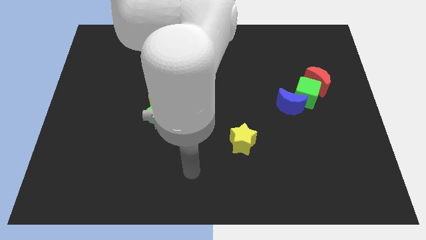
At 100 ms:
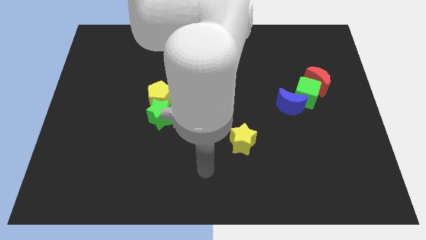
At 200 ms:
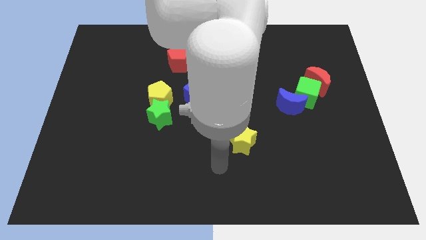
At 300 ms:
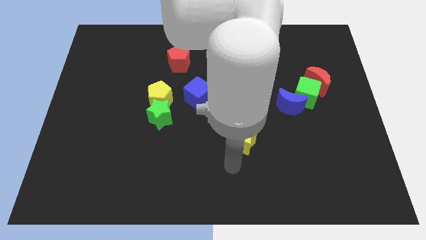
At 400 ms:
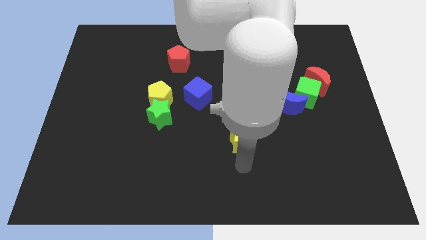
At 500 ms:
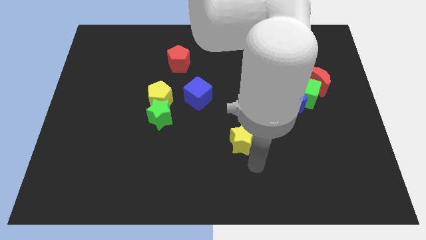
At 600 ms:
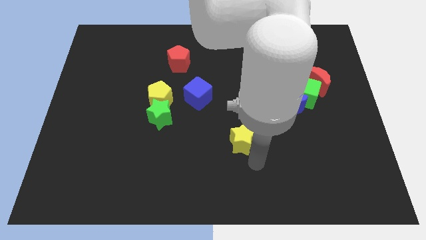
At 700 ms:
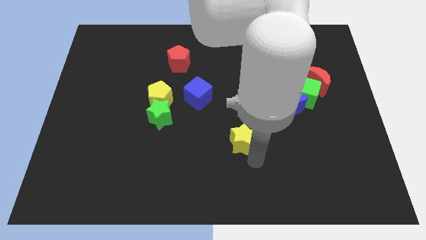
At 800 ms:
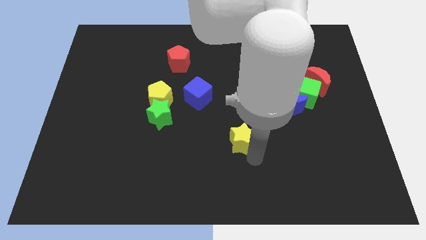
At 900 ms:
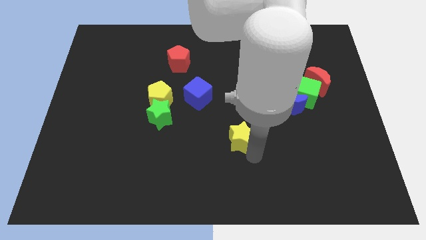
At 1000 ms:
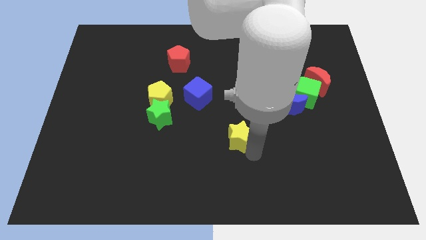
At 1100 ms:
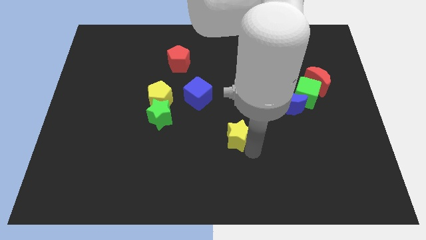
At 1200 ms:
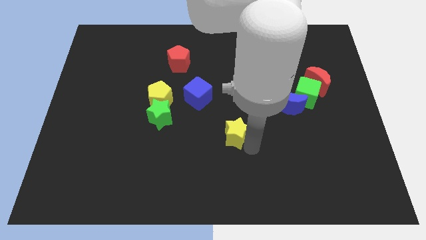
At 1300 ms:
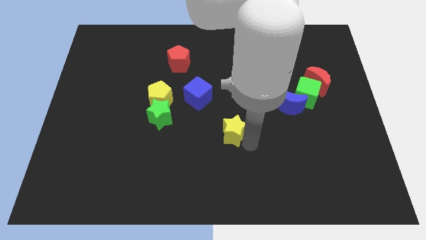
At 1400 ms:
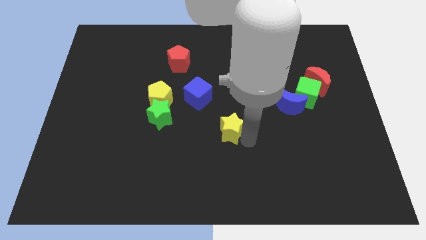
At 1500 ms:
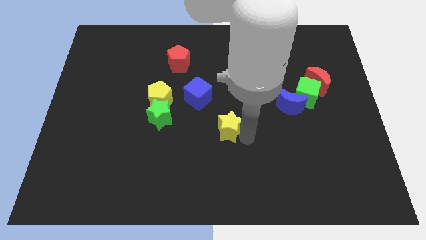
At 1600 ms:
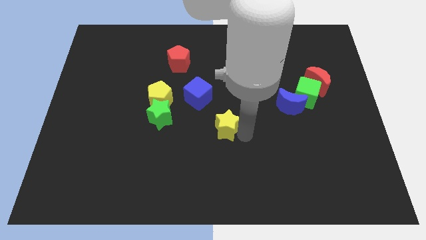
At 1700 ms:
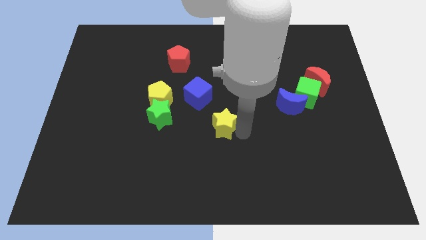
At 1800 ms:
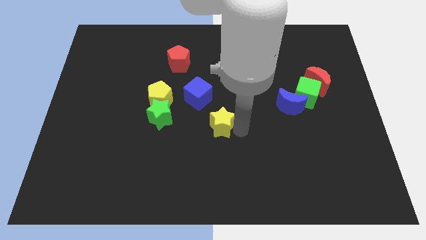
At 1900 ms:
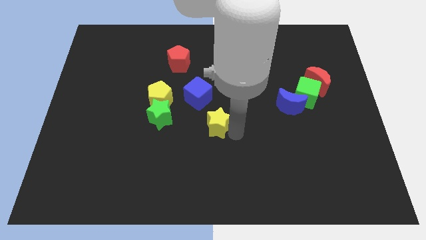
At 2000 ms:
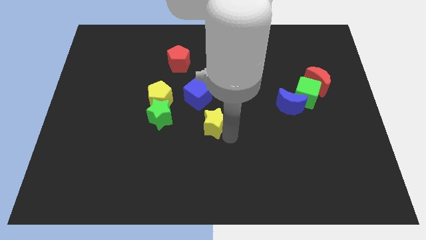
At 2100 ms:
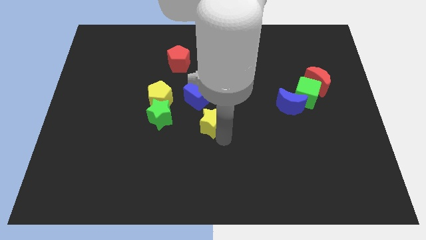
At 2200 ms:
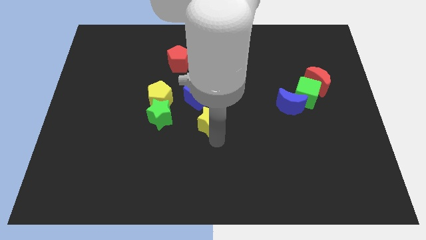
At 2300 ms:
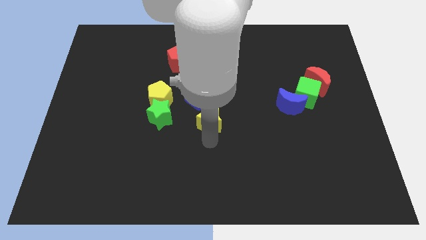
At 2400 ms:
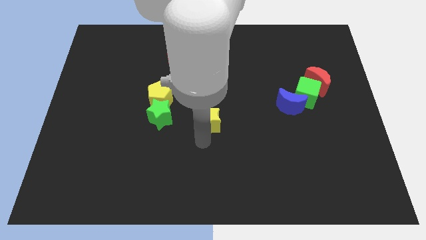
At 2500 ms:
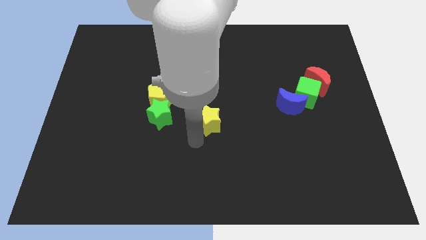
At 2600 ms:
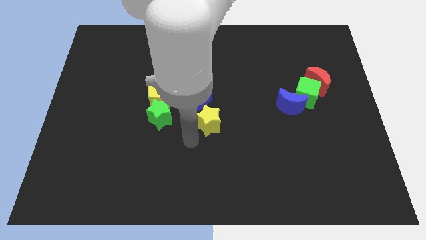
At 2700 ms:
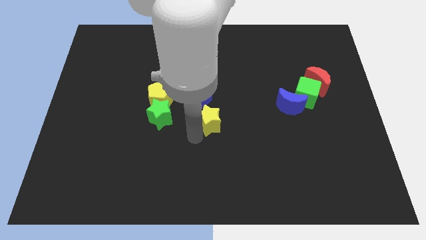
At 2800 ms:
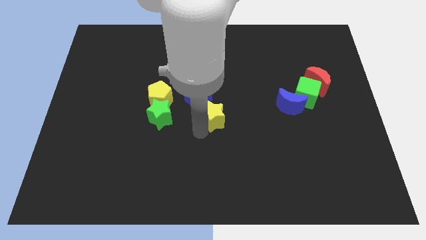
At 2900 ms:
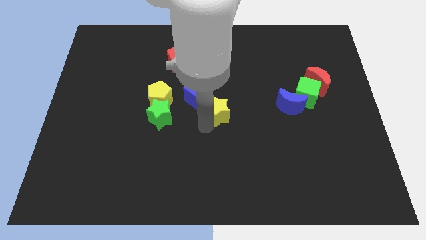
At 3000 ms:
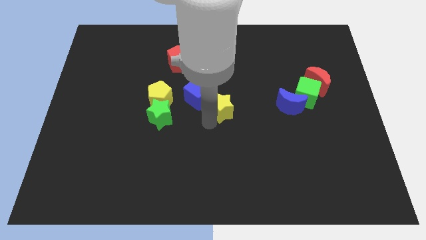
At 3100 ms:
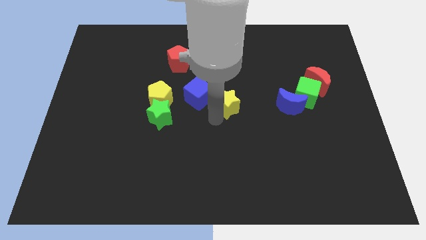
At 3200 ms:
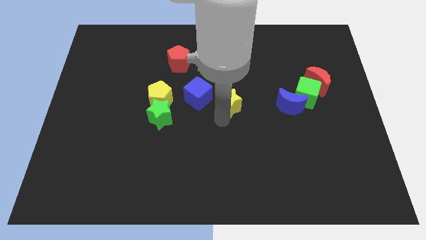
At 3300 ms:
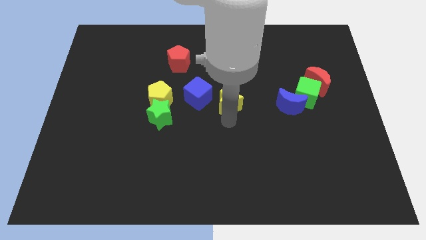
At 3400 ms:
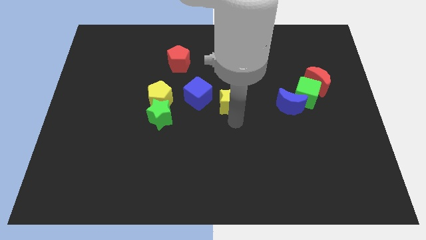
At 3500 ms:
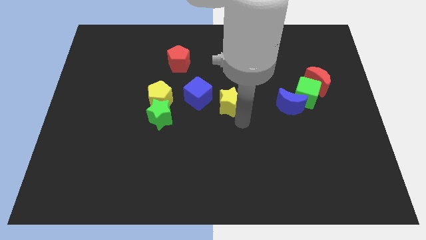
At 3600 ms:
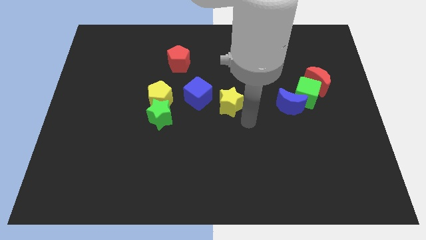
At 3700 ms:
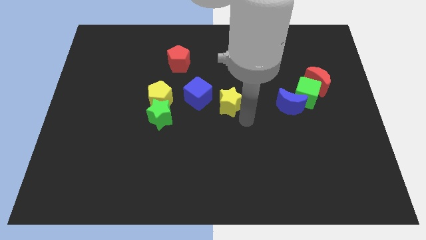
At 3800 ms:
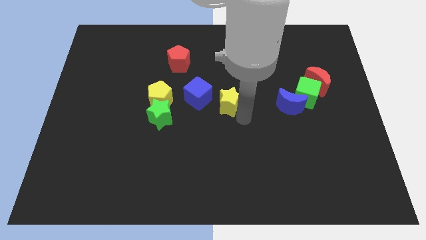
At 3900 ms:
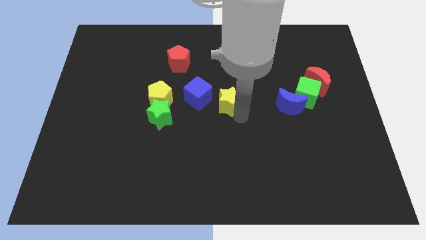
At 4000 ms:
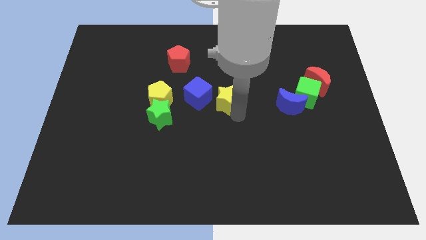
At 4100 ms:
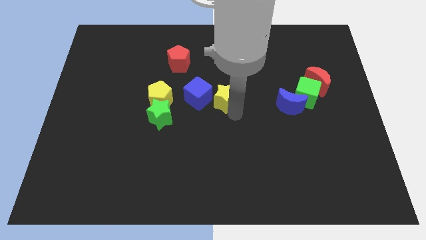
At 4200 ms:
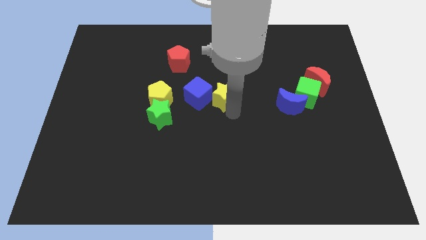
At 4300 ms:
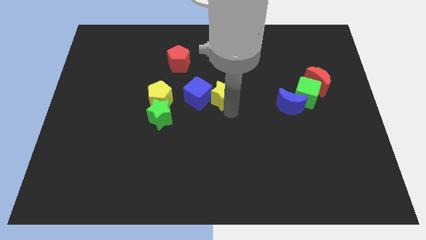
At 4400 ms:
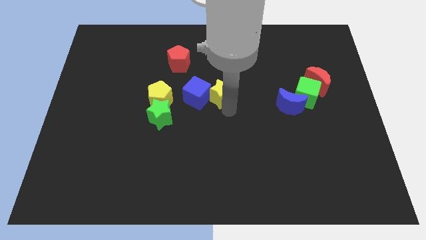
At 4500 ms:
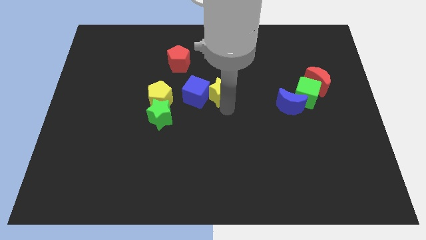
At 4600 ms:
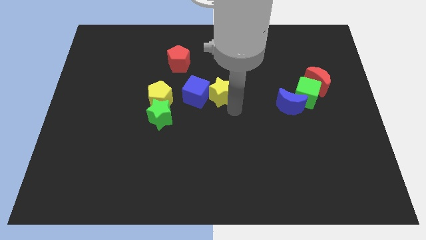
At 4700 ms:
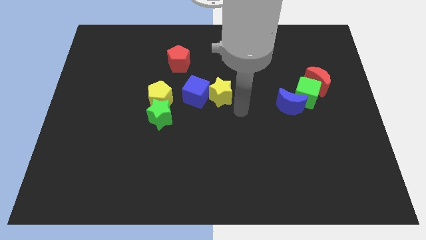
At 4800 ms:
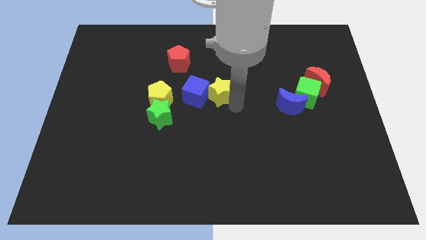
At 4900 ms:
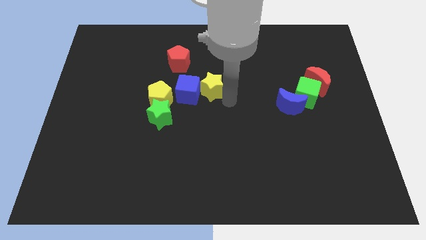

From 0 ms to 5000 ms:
slide the yellow star diagonally down and to the right of the red pentagon

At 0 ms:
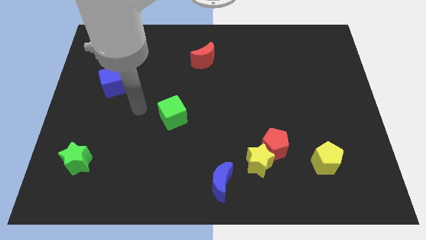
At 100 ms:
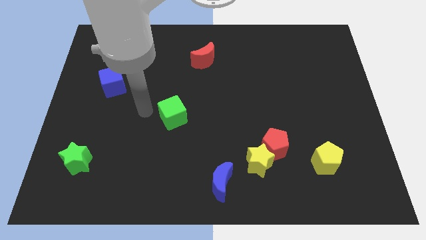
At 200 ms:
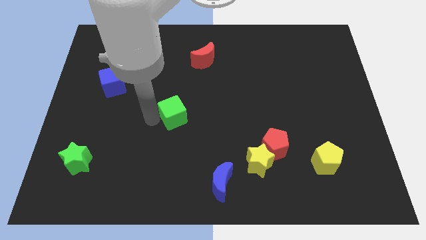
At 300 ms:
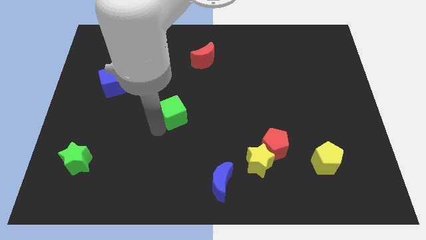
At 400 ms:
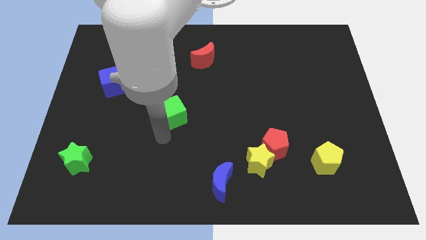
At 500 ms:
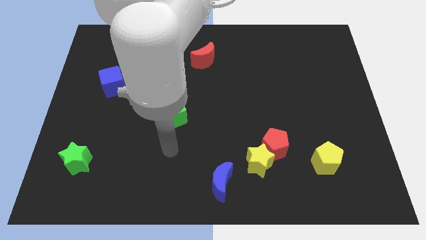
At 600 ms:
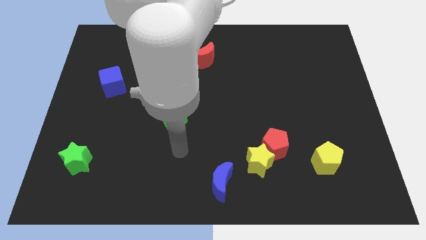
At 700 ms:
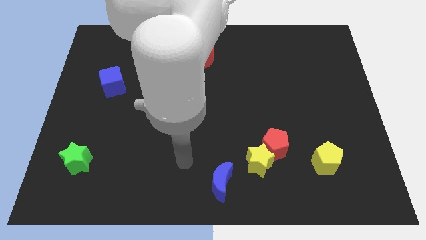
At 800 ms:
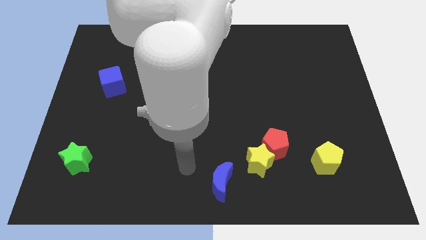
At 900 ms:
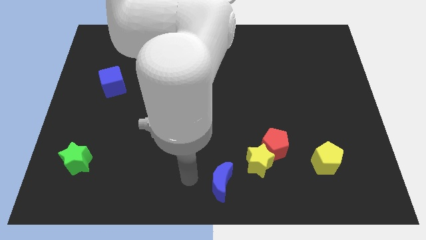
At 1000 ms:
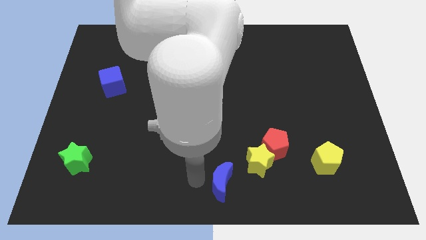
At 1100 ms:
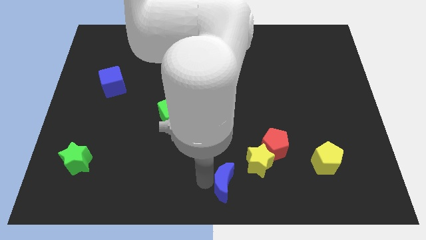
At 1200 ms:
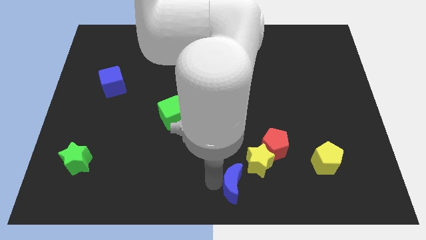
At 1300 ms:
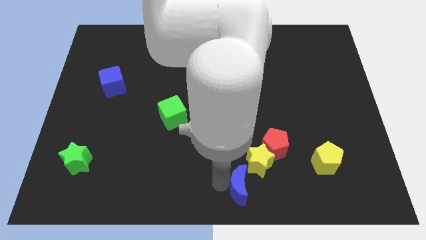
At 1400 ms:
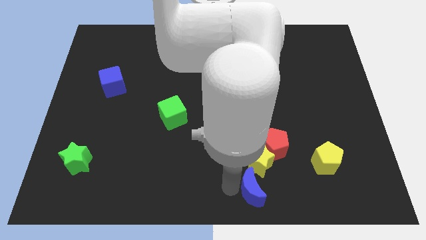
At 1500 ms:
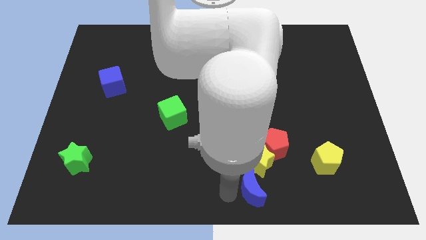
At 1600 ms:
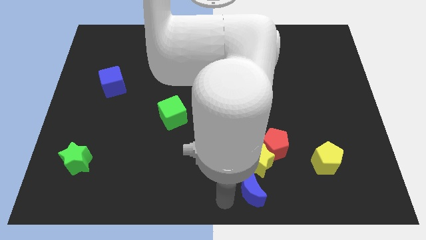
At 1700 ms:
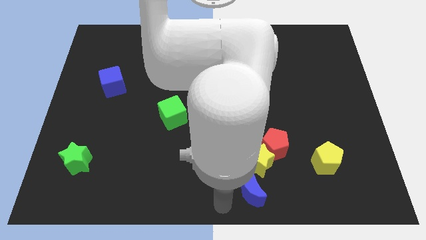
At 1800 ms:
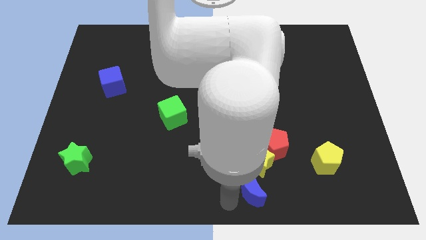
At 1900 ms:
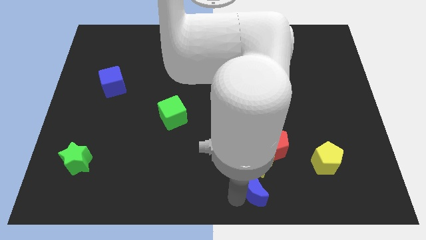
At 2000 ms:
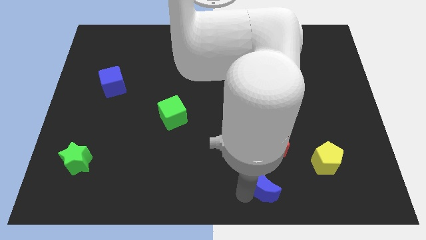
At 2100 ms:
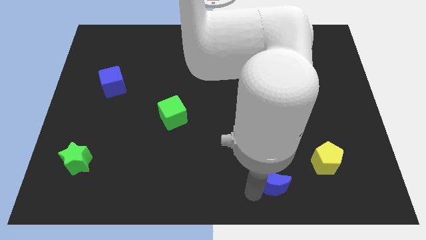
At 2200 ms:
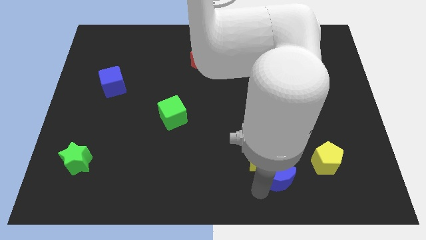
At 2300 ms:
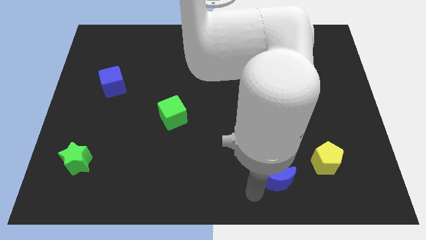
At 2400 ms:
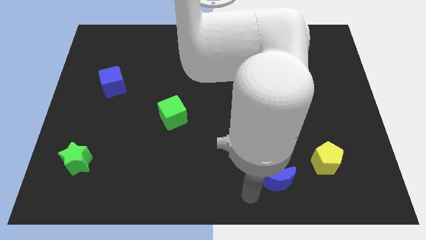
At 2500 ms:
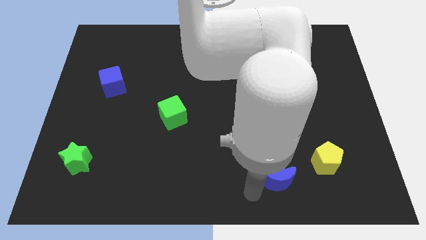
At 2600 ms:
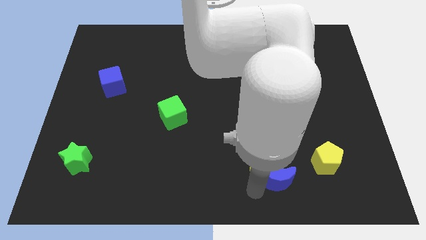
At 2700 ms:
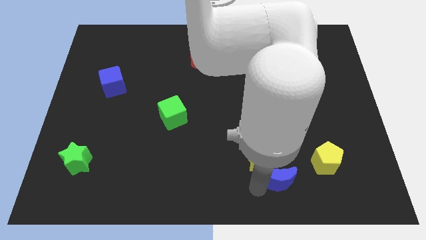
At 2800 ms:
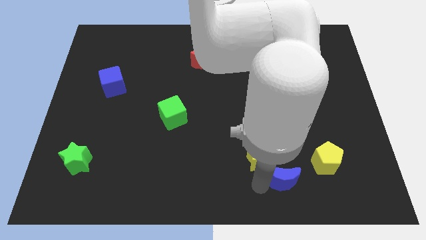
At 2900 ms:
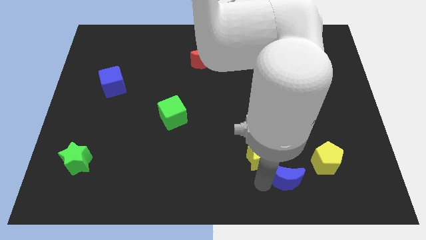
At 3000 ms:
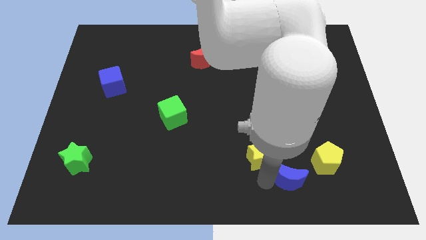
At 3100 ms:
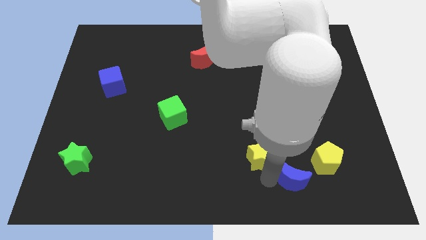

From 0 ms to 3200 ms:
move the blue moon diagonally down and to the right of the red pentagon
